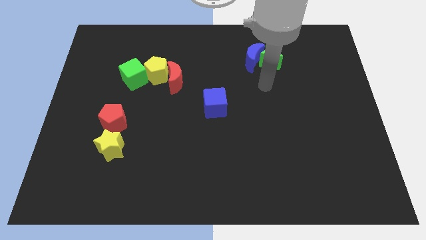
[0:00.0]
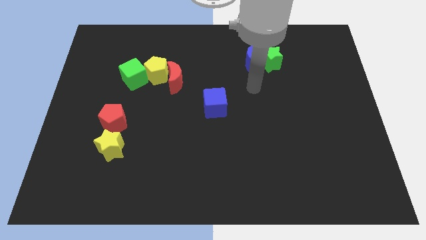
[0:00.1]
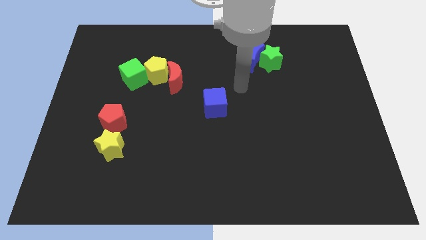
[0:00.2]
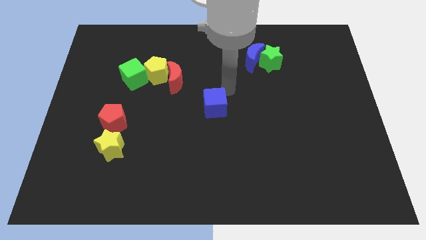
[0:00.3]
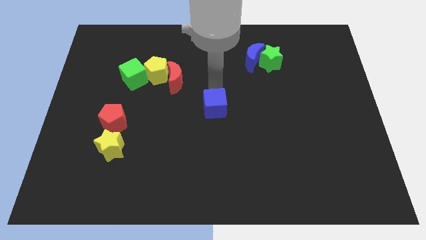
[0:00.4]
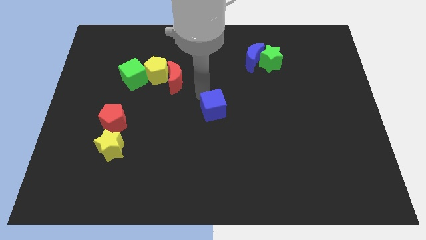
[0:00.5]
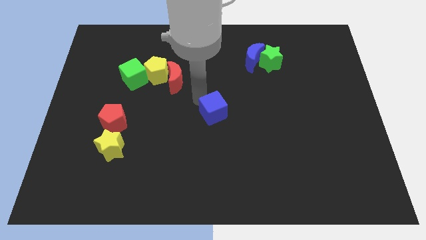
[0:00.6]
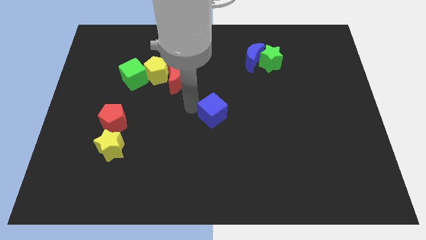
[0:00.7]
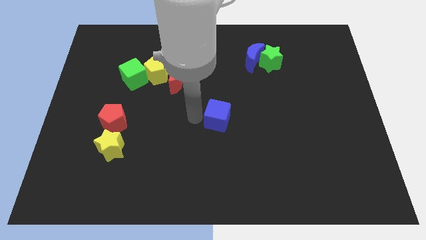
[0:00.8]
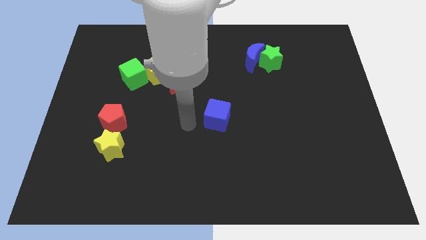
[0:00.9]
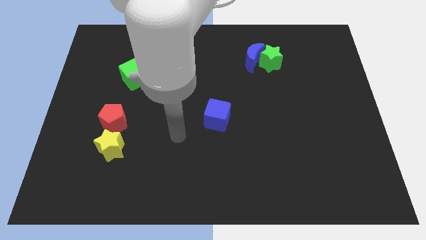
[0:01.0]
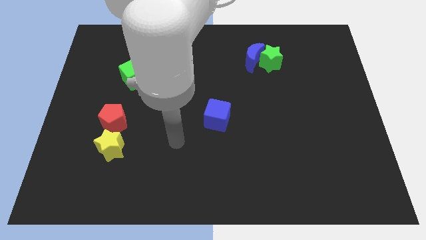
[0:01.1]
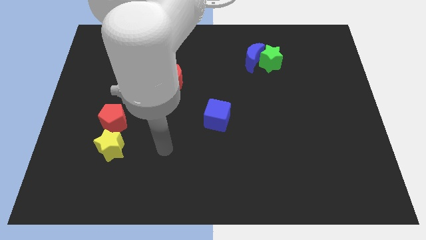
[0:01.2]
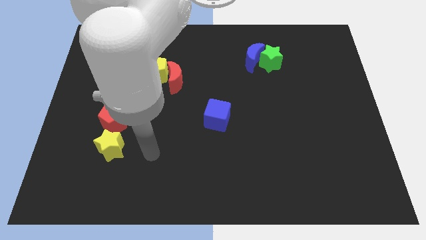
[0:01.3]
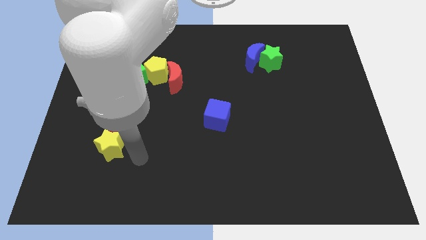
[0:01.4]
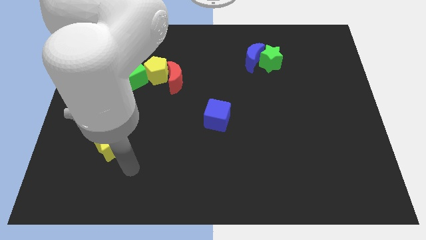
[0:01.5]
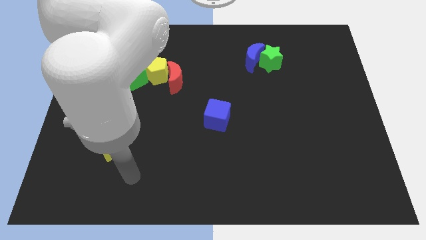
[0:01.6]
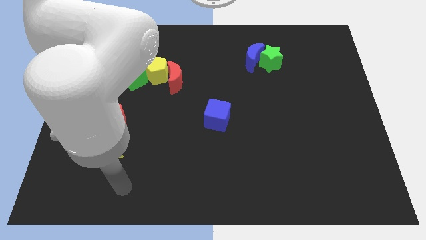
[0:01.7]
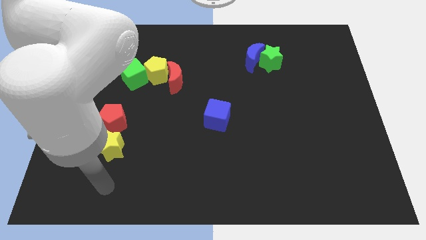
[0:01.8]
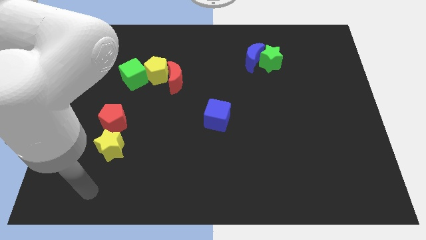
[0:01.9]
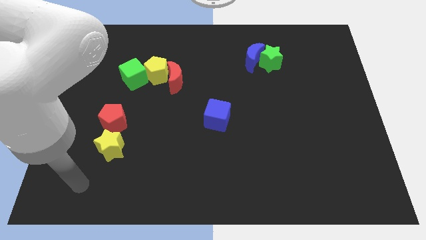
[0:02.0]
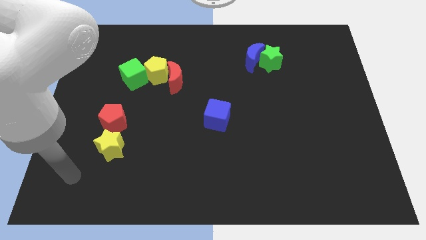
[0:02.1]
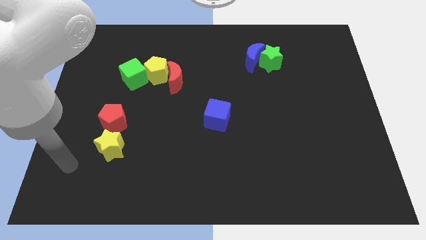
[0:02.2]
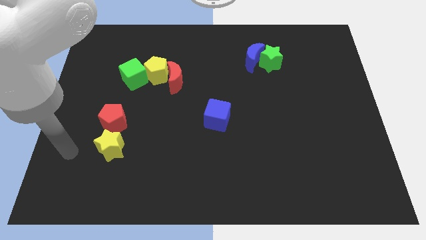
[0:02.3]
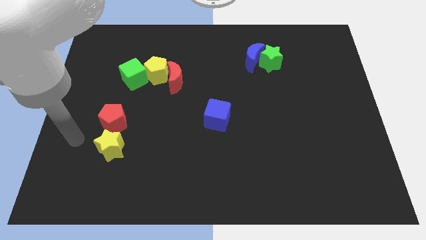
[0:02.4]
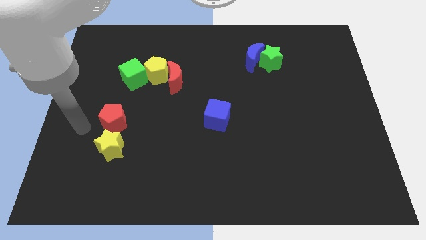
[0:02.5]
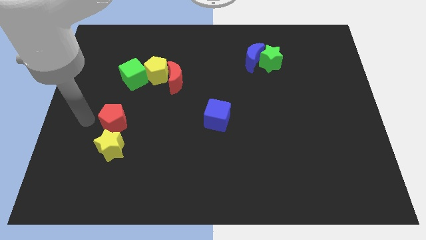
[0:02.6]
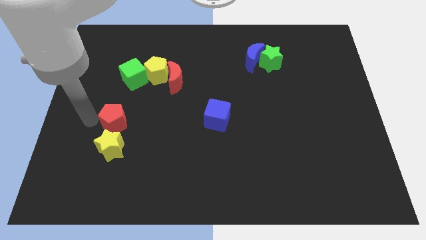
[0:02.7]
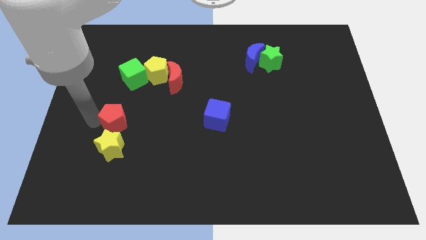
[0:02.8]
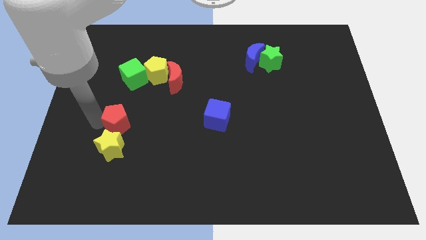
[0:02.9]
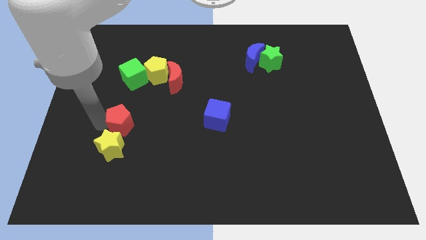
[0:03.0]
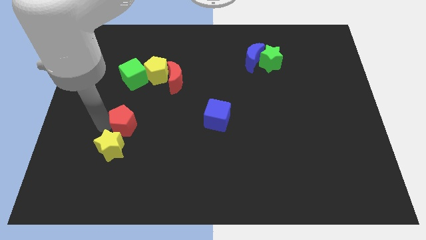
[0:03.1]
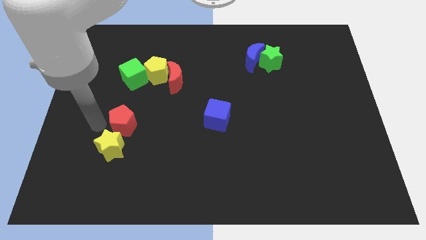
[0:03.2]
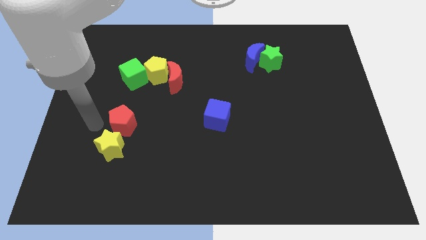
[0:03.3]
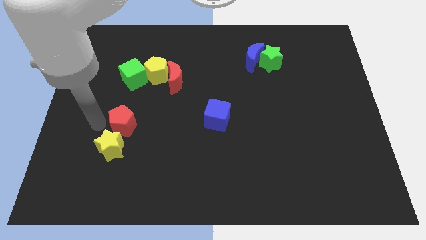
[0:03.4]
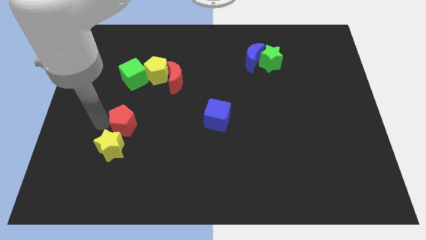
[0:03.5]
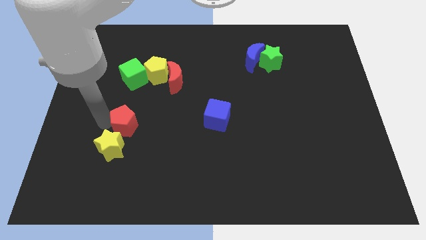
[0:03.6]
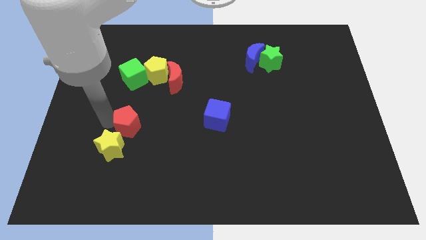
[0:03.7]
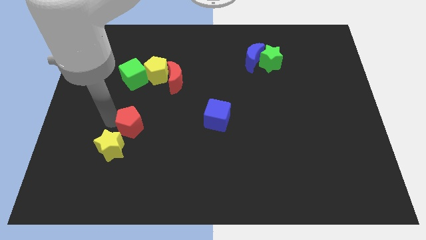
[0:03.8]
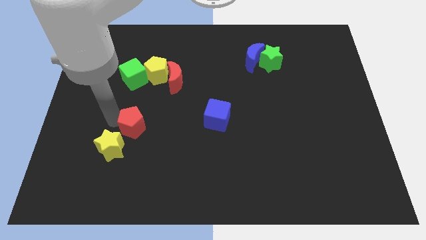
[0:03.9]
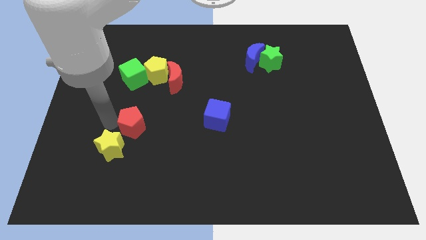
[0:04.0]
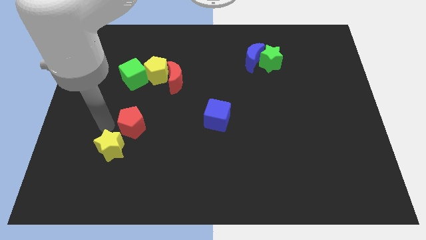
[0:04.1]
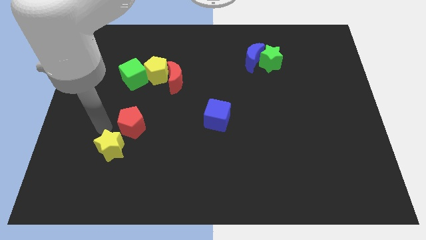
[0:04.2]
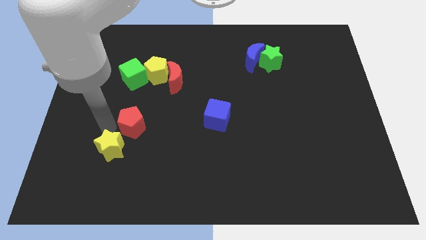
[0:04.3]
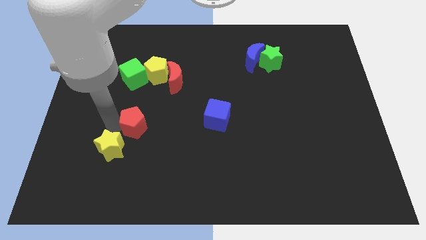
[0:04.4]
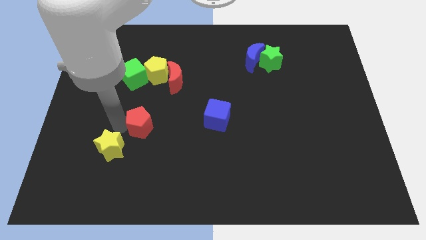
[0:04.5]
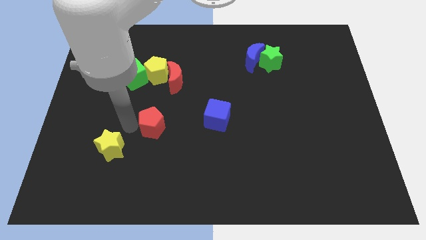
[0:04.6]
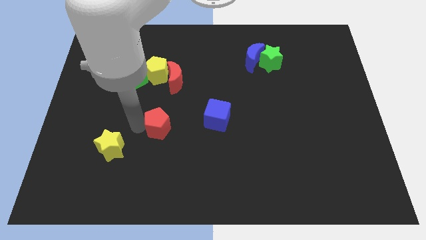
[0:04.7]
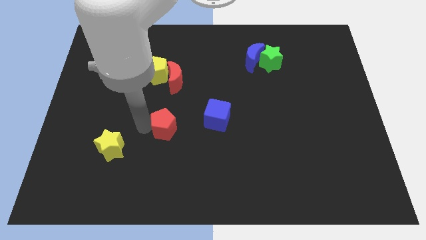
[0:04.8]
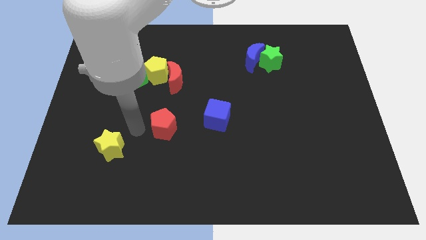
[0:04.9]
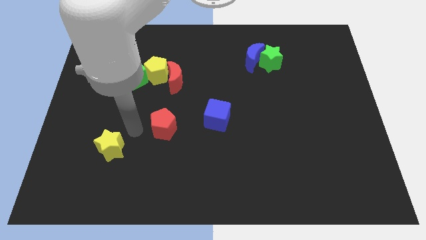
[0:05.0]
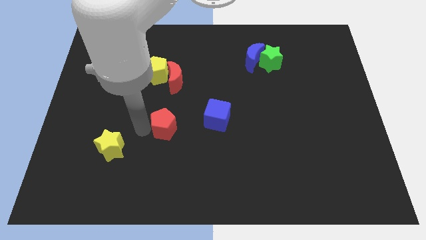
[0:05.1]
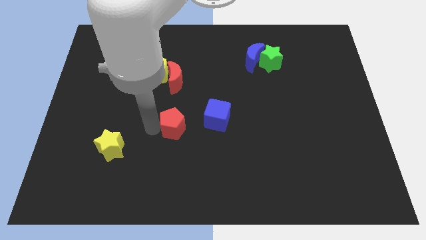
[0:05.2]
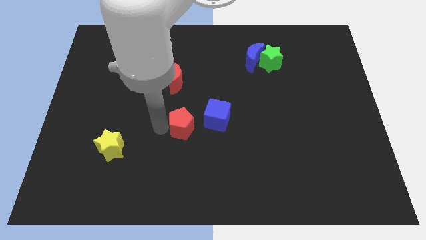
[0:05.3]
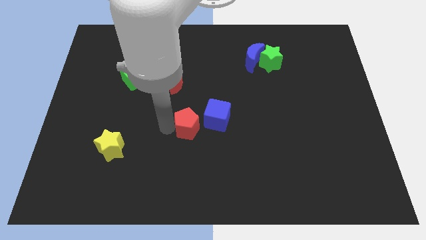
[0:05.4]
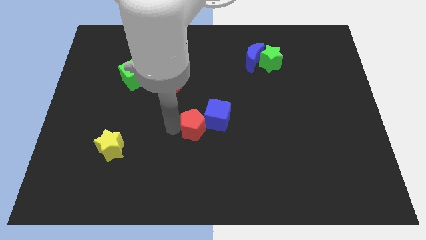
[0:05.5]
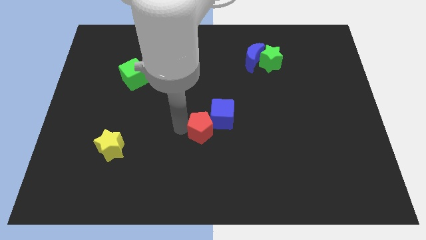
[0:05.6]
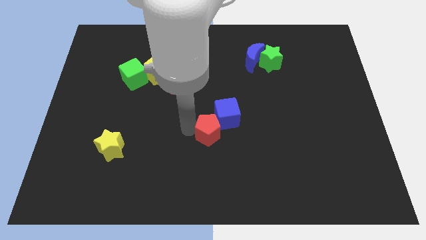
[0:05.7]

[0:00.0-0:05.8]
slide the red pentagon to the right

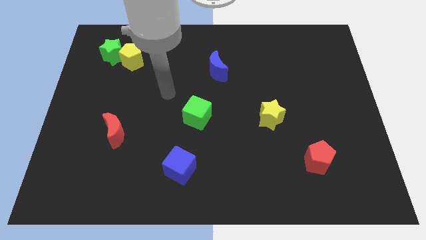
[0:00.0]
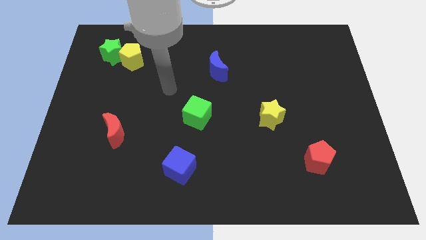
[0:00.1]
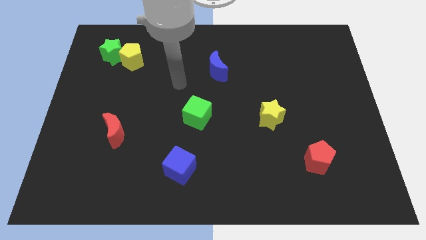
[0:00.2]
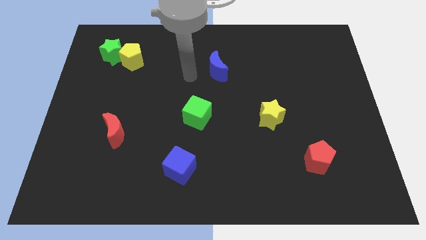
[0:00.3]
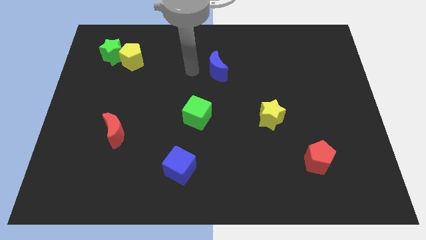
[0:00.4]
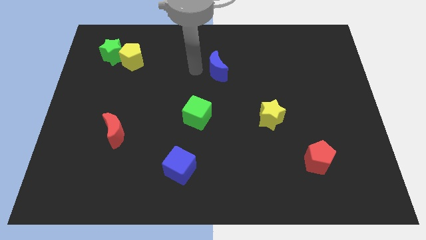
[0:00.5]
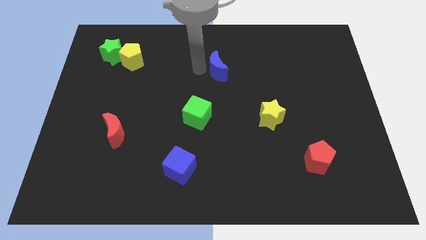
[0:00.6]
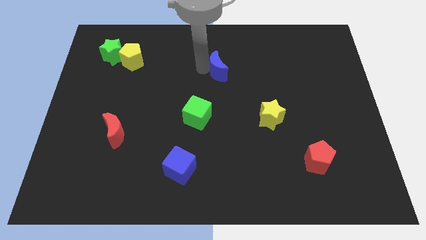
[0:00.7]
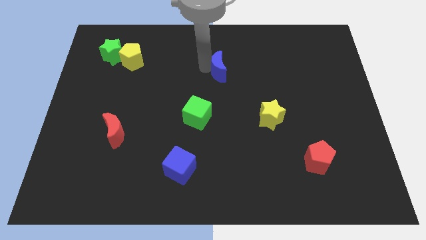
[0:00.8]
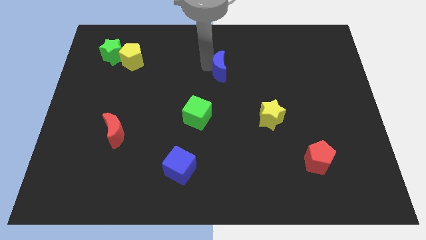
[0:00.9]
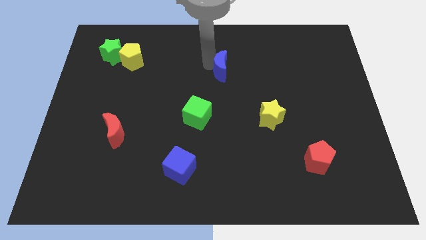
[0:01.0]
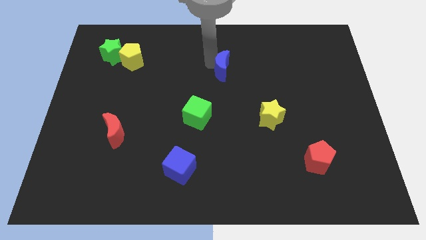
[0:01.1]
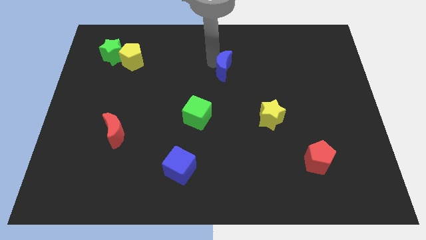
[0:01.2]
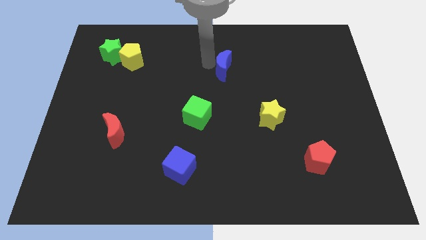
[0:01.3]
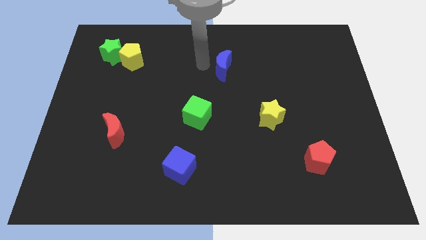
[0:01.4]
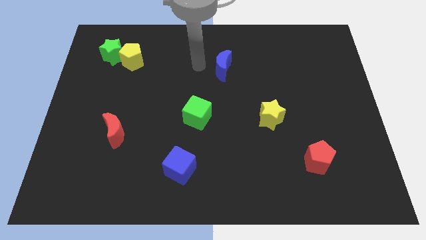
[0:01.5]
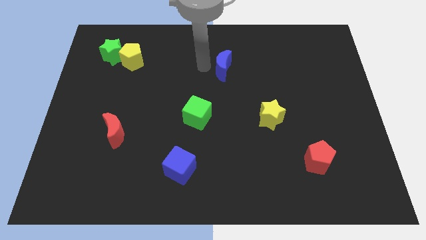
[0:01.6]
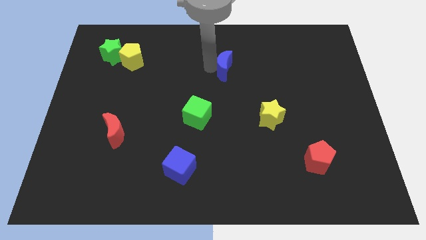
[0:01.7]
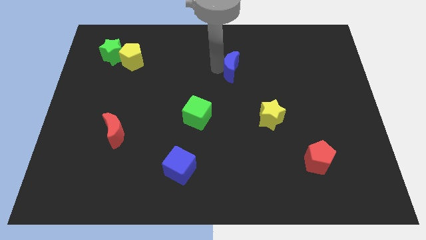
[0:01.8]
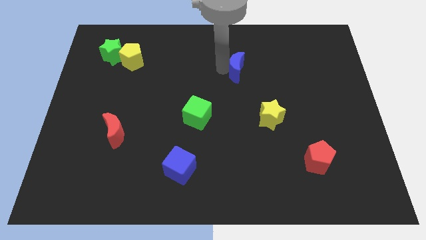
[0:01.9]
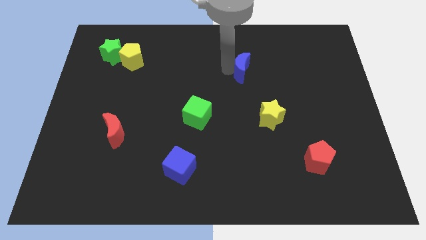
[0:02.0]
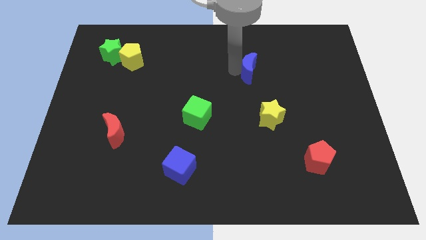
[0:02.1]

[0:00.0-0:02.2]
move the blue moon to the right somewhat
